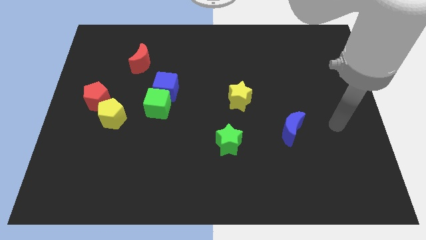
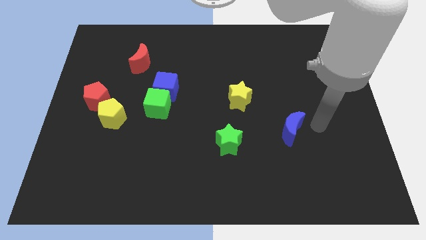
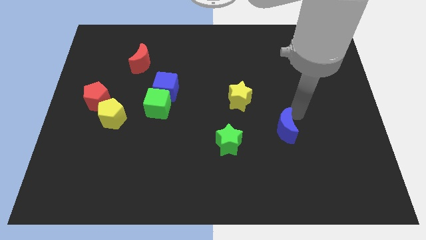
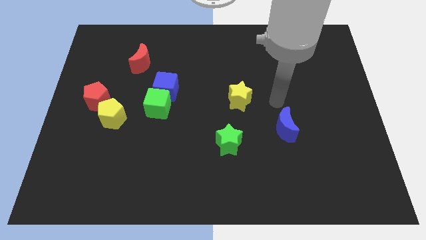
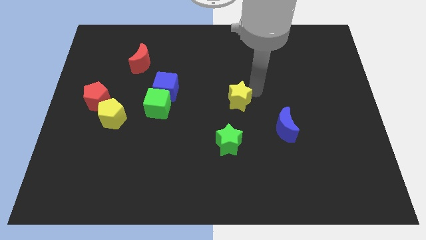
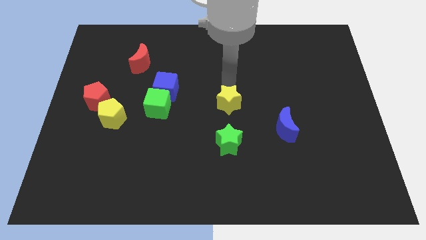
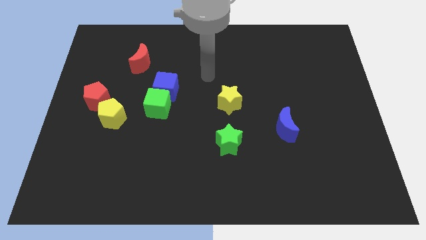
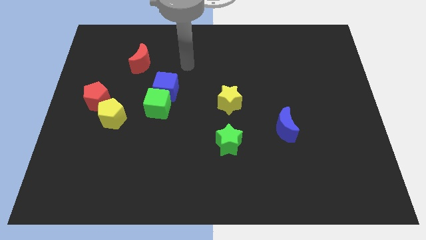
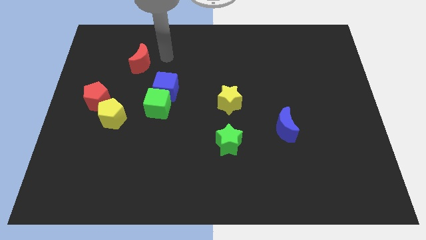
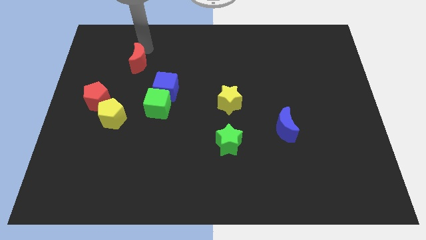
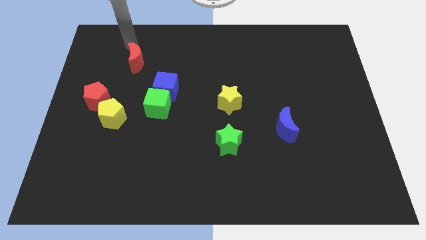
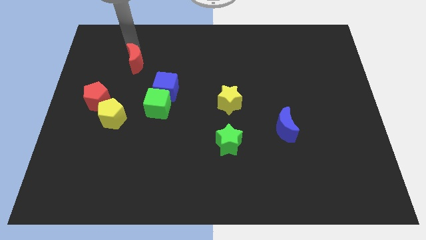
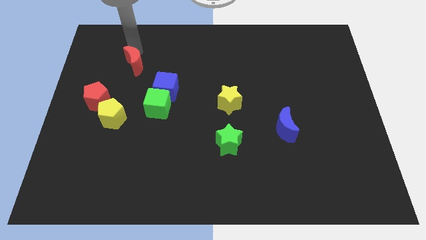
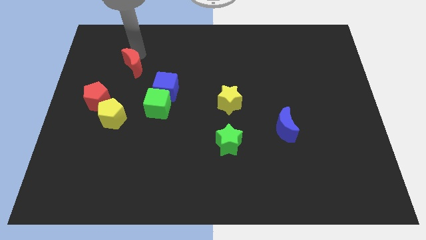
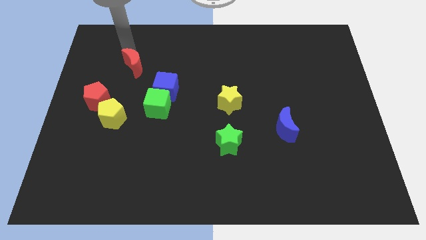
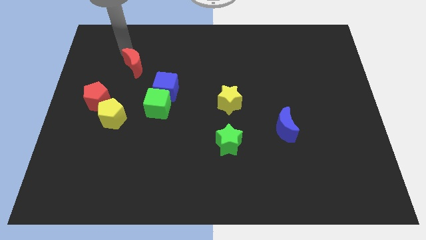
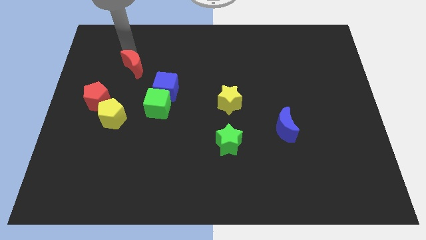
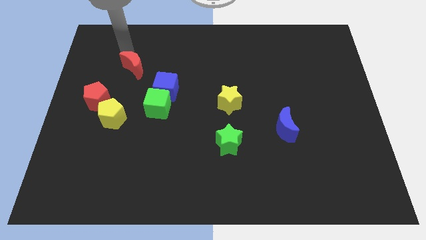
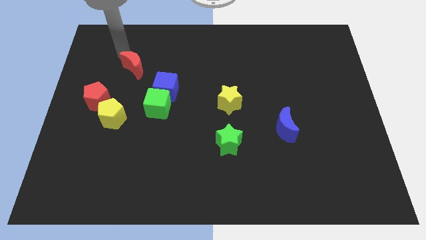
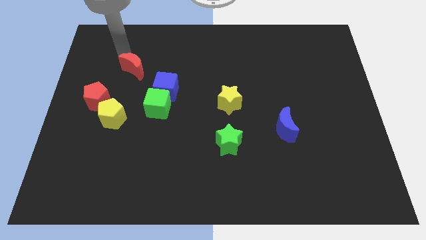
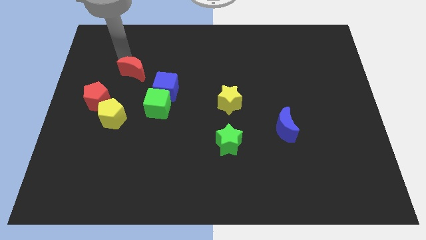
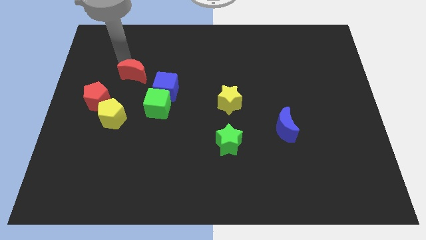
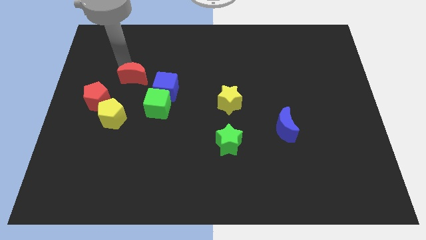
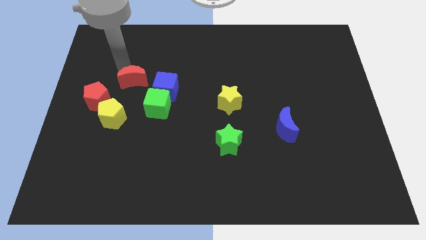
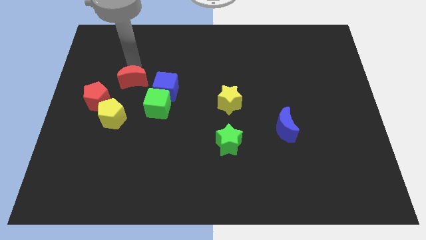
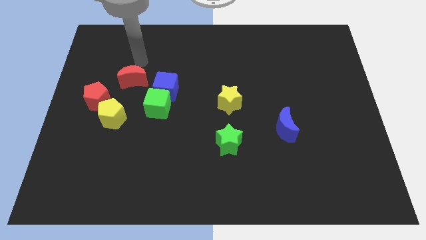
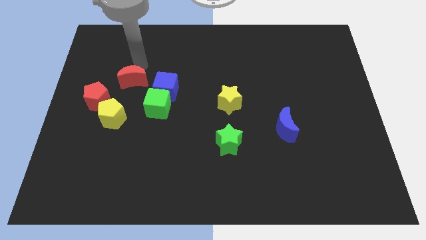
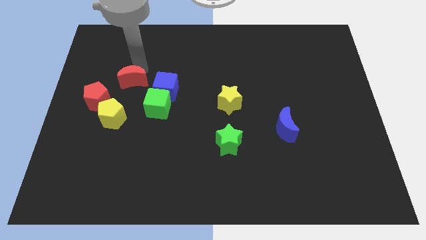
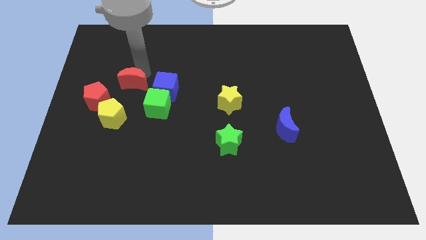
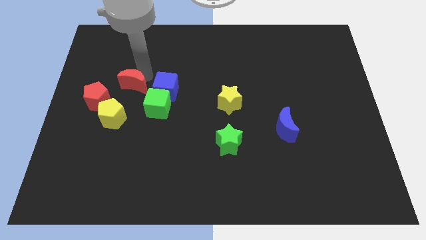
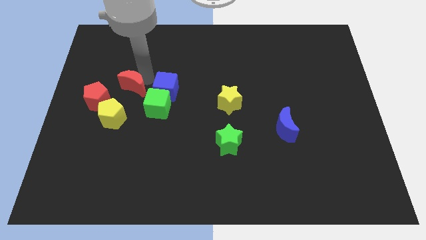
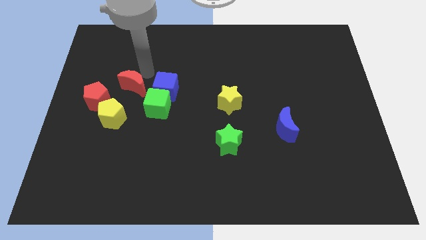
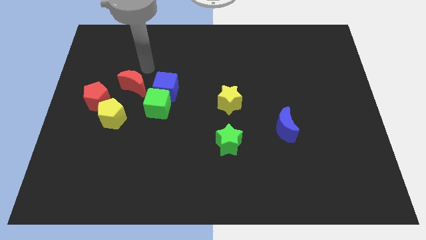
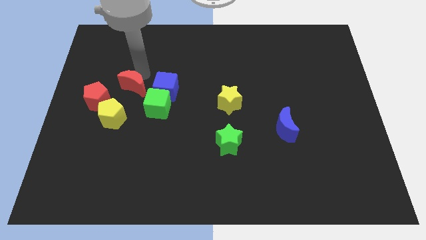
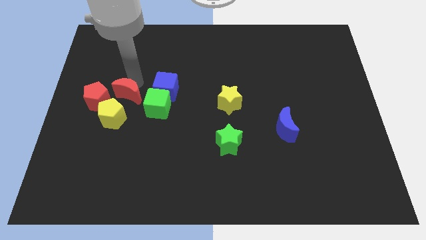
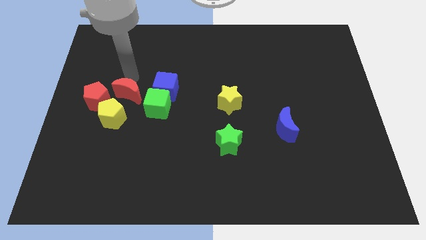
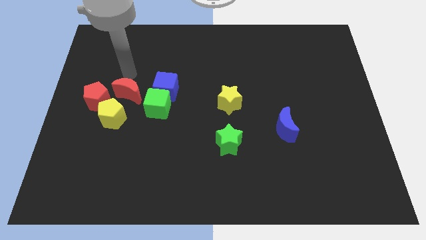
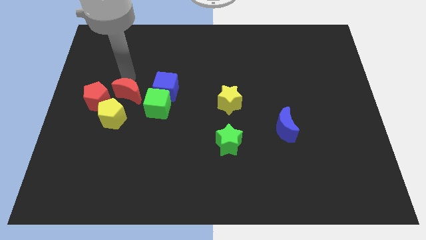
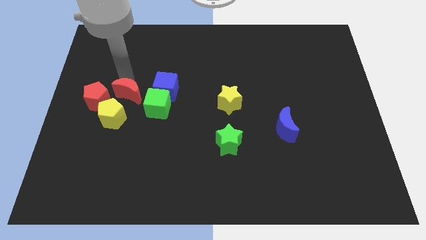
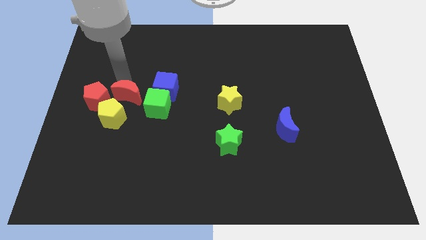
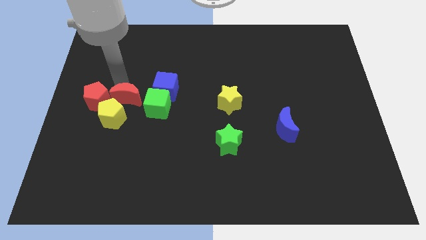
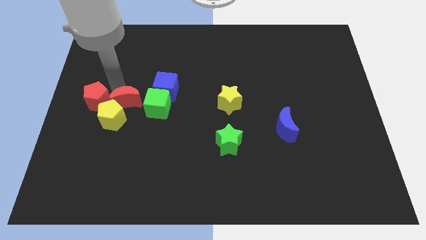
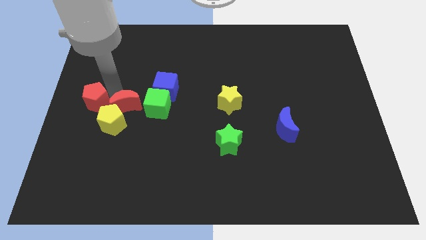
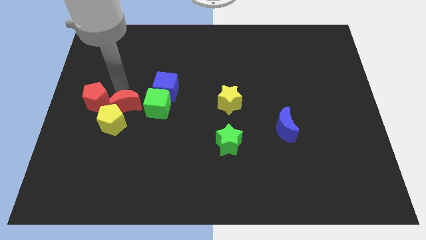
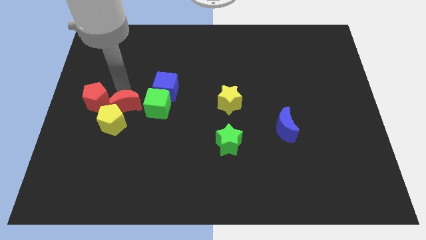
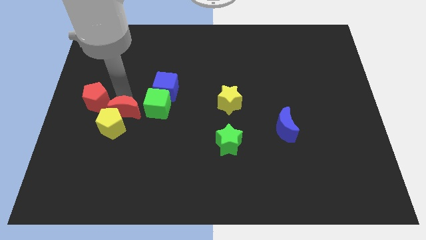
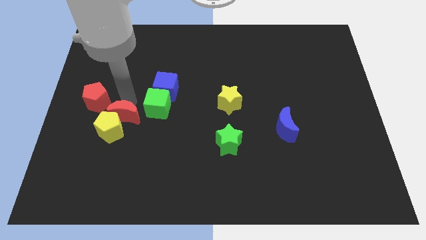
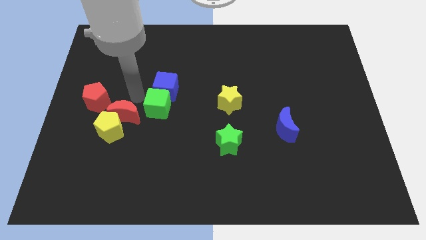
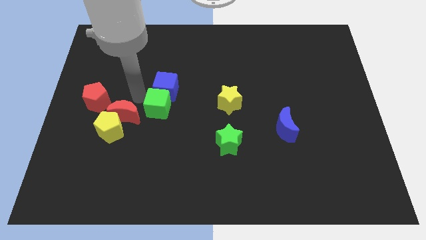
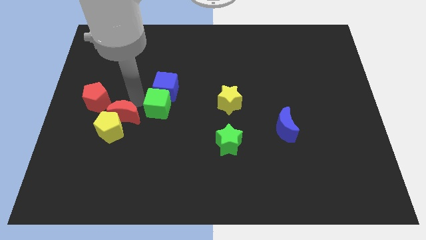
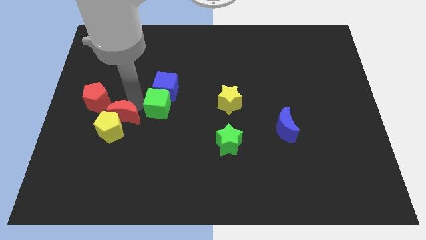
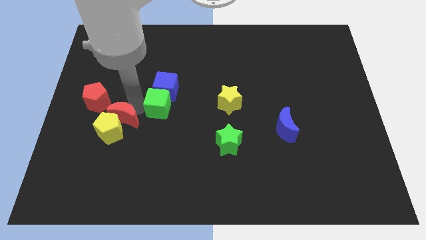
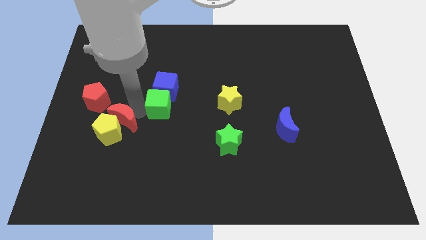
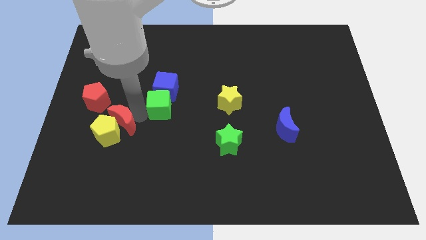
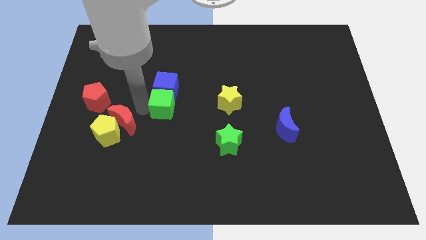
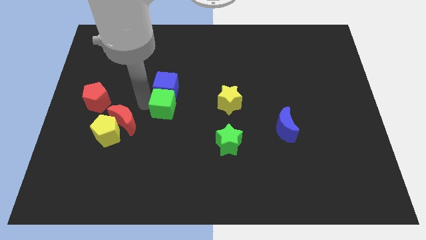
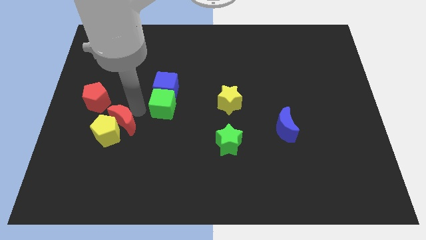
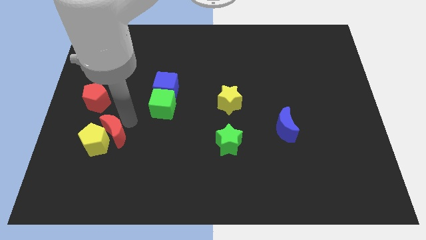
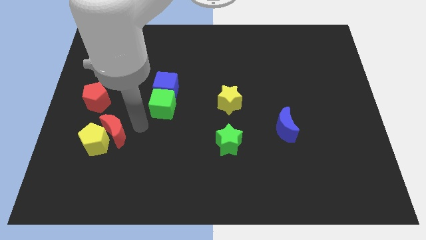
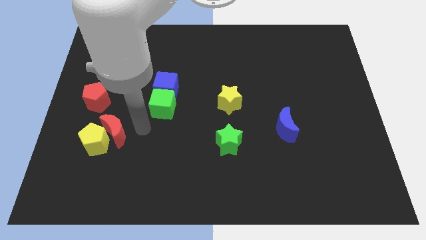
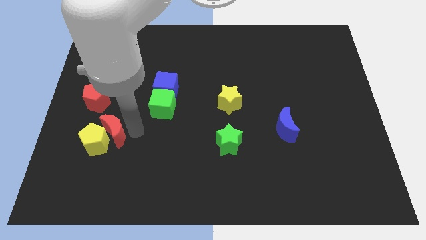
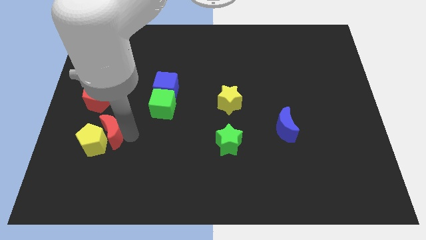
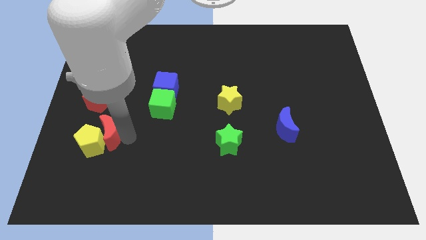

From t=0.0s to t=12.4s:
push the red moon to the bottom side of the red pentagon

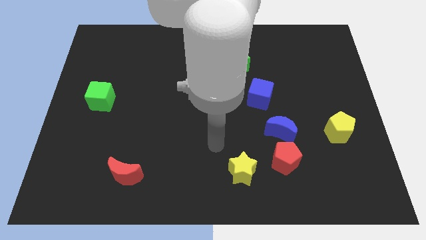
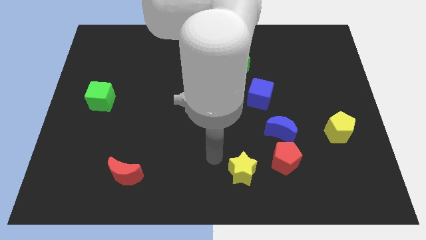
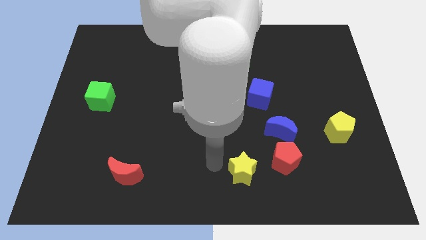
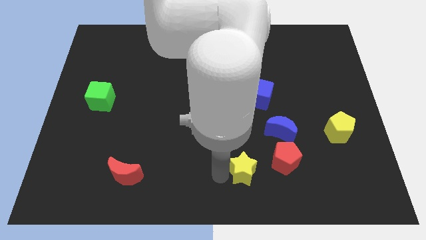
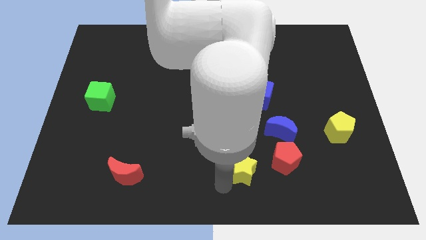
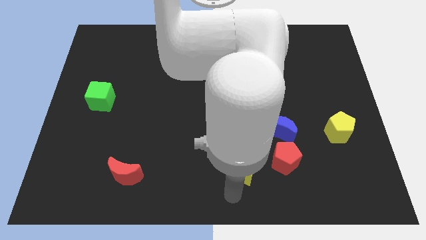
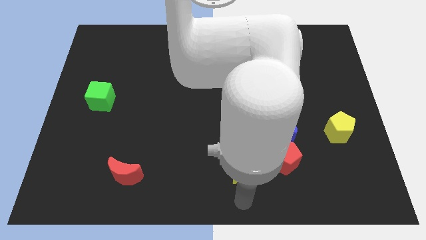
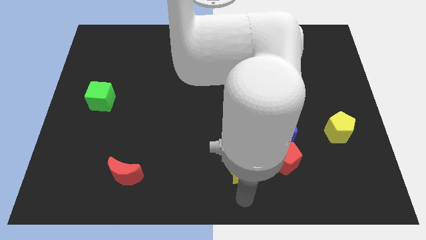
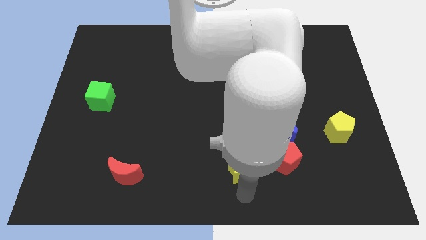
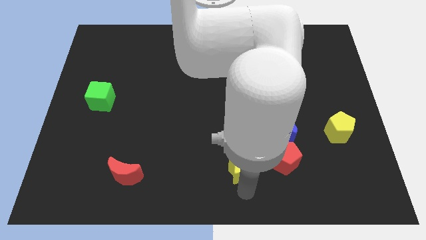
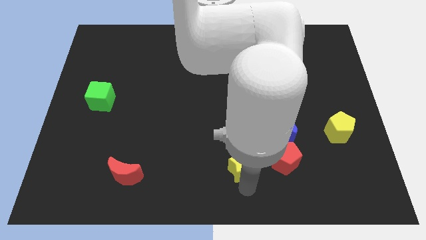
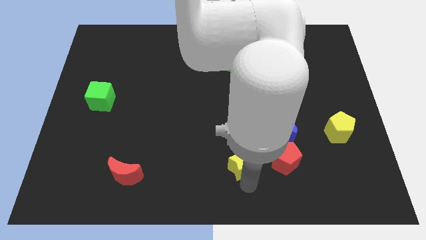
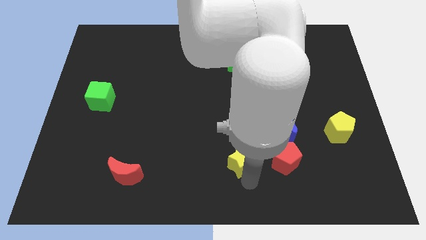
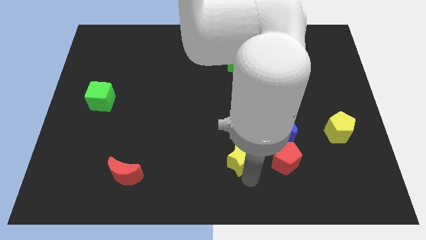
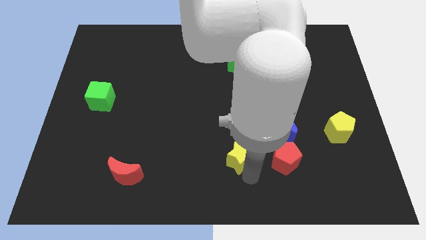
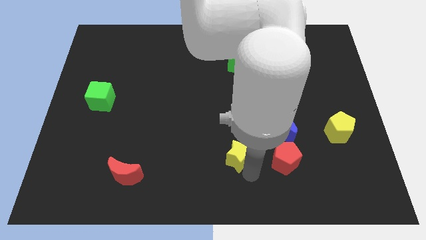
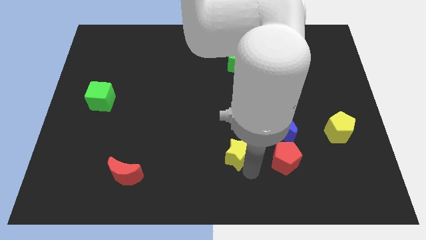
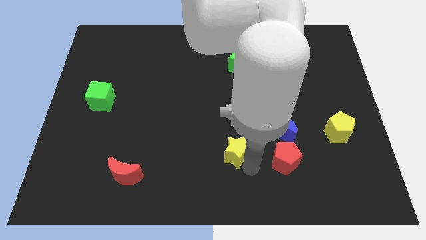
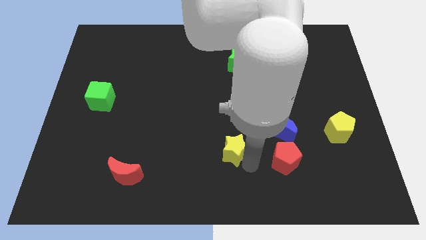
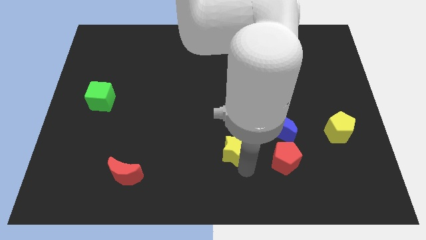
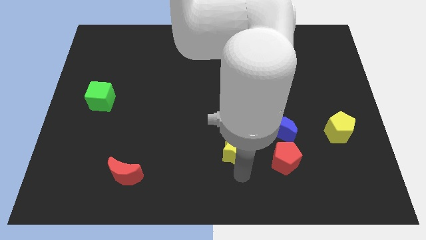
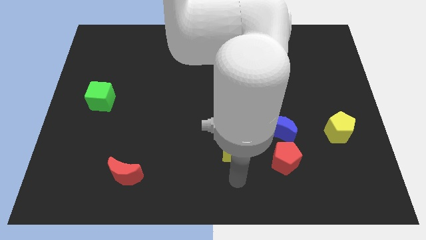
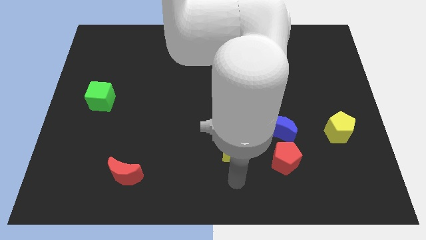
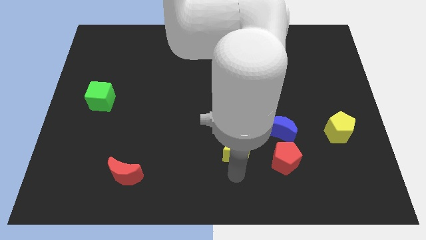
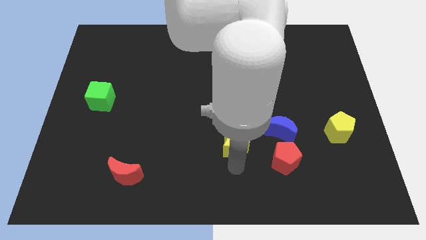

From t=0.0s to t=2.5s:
move the yellow star to the left of the blue moon
